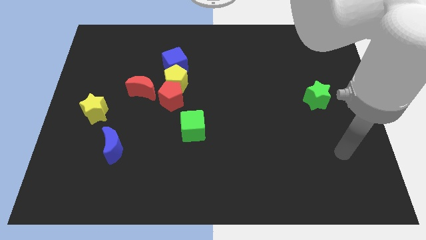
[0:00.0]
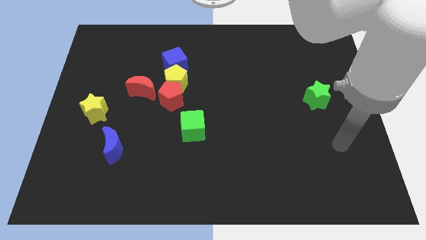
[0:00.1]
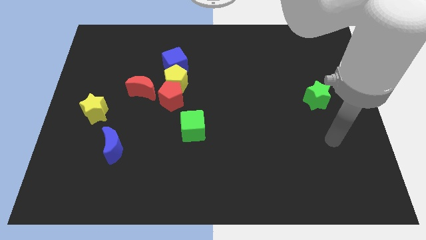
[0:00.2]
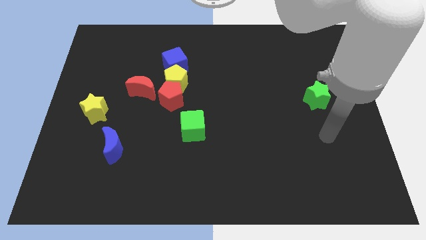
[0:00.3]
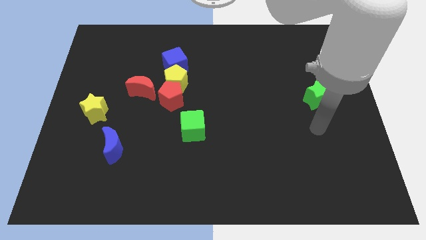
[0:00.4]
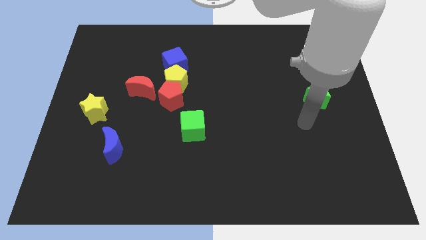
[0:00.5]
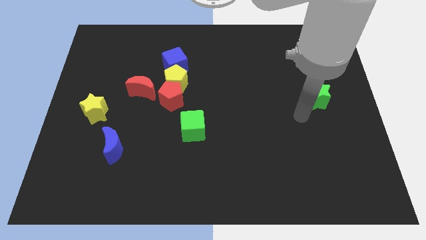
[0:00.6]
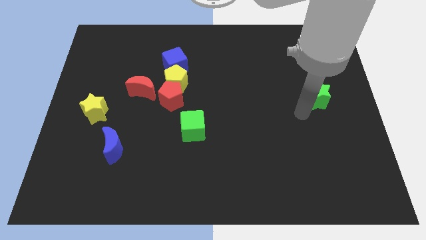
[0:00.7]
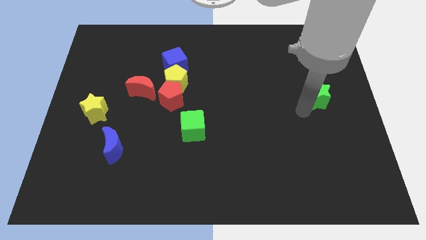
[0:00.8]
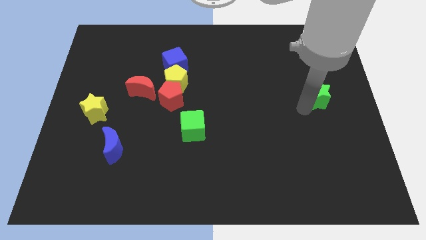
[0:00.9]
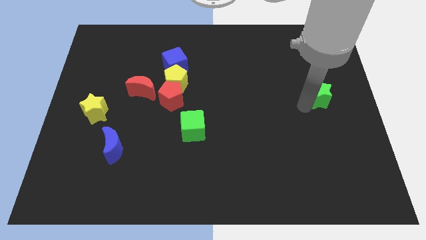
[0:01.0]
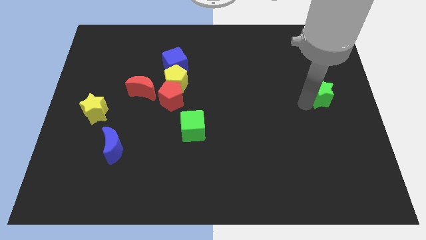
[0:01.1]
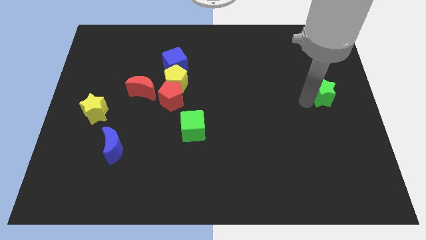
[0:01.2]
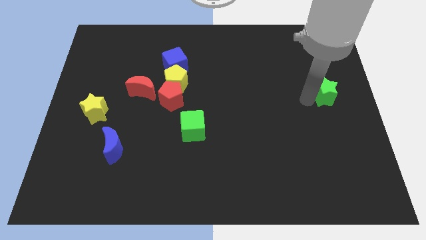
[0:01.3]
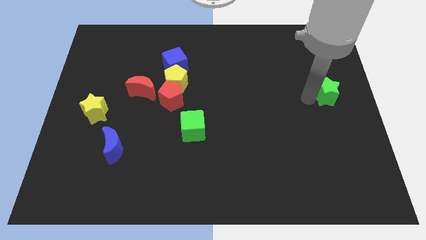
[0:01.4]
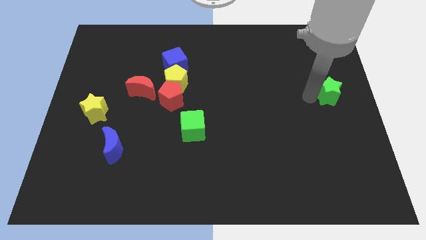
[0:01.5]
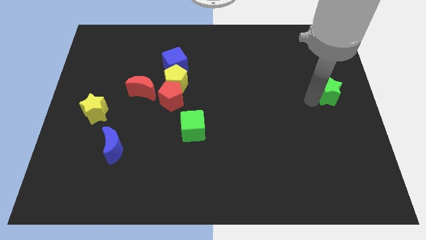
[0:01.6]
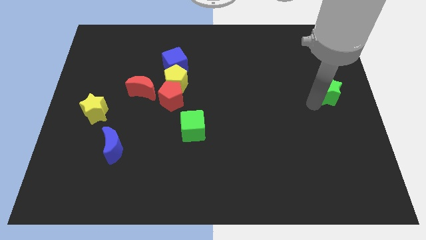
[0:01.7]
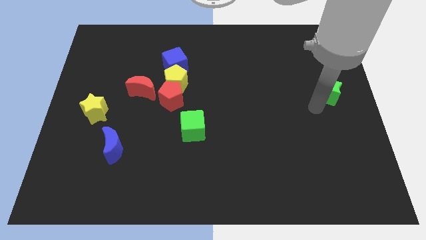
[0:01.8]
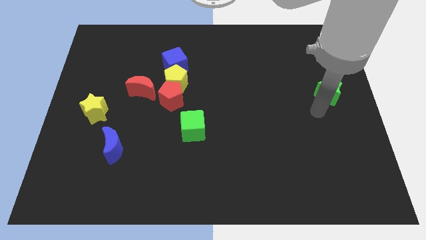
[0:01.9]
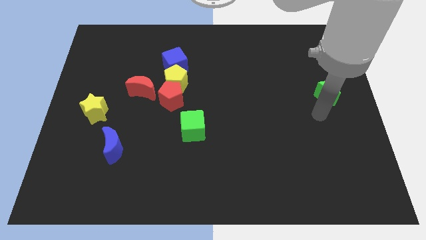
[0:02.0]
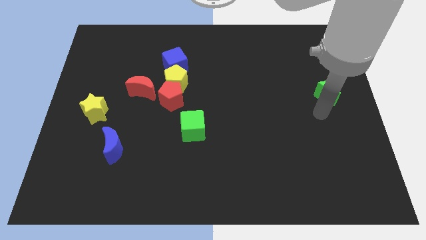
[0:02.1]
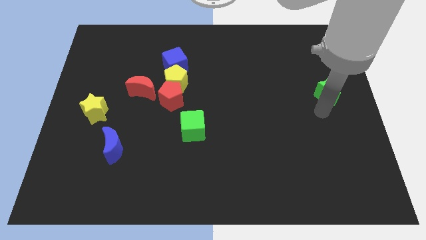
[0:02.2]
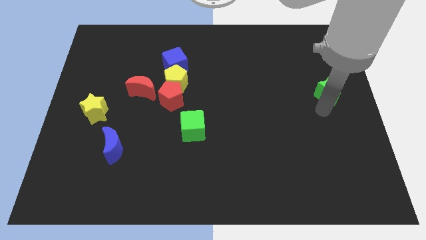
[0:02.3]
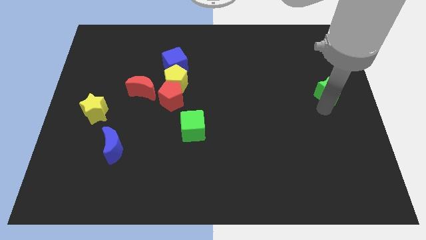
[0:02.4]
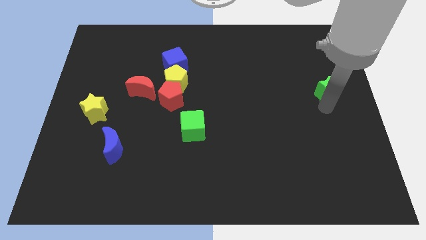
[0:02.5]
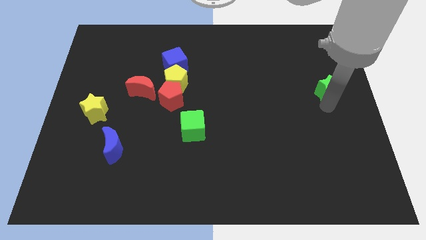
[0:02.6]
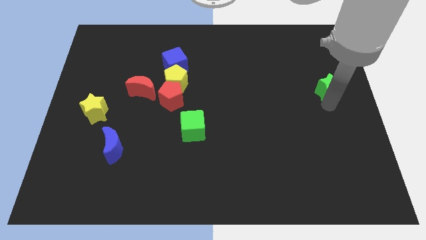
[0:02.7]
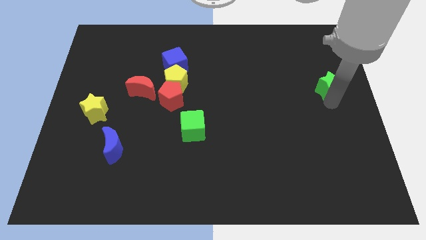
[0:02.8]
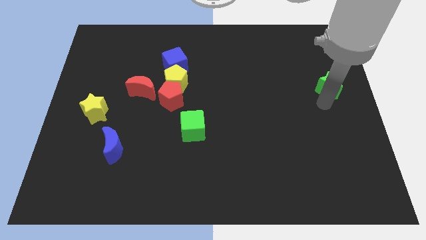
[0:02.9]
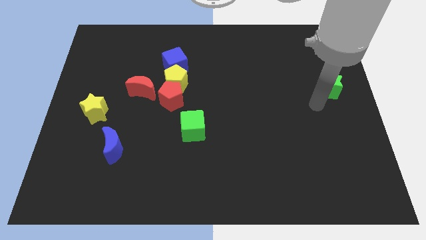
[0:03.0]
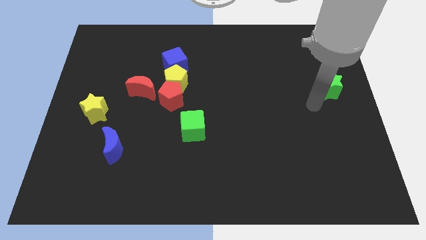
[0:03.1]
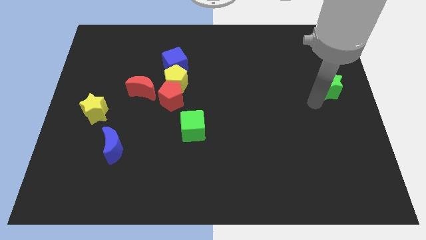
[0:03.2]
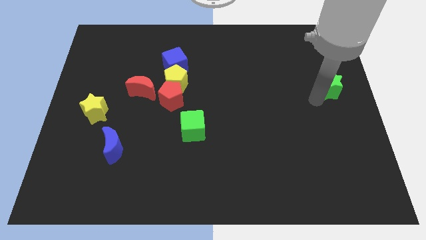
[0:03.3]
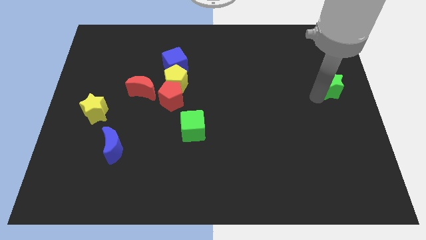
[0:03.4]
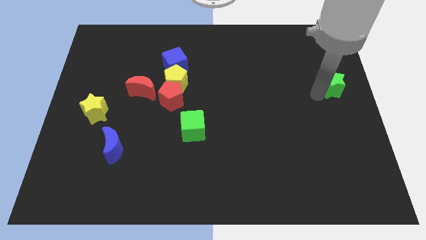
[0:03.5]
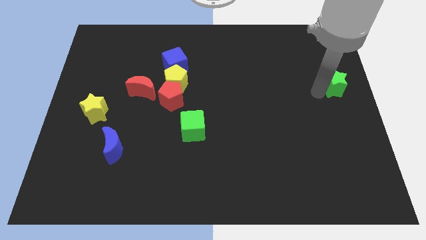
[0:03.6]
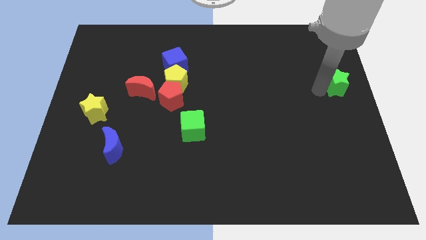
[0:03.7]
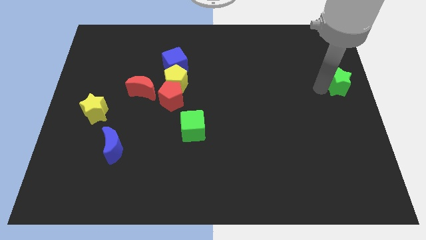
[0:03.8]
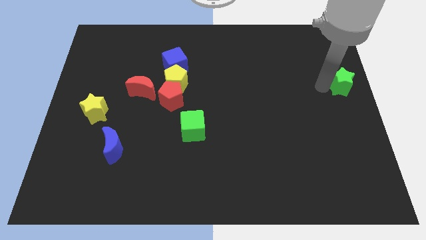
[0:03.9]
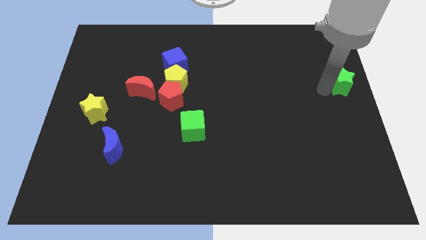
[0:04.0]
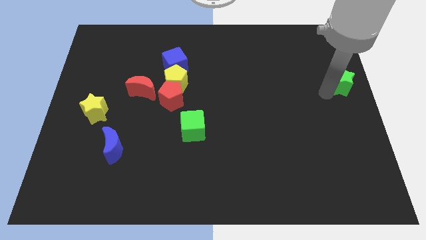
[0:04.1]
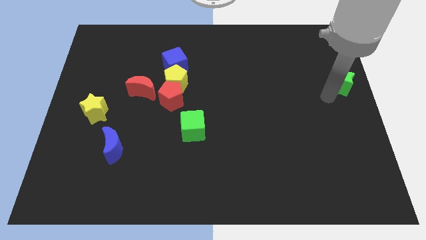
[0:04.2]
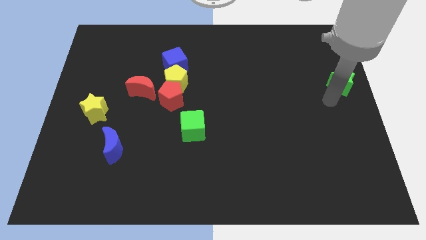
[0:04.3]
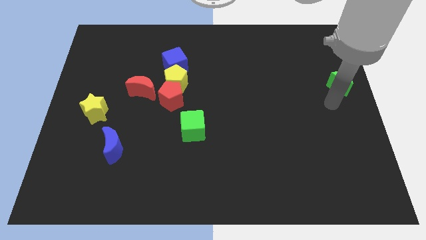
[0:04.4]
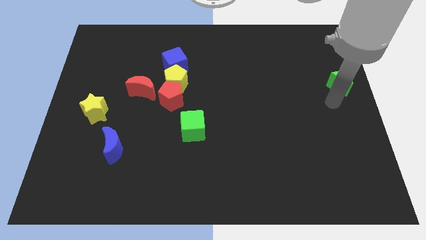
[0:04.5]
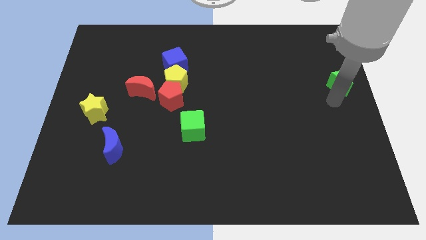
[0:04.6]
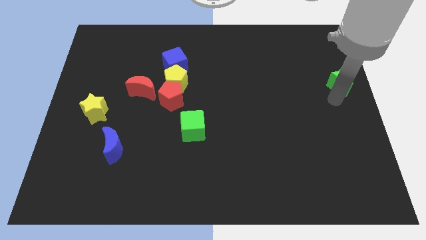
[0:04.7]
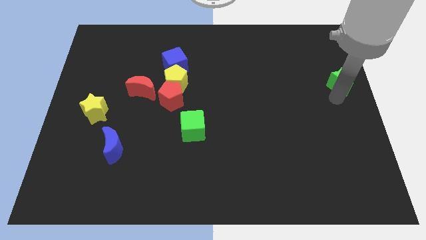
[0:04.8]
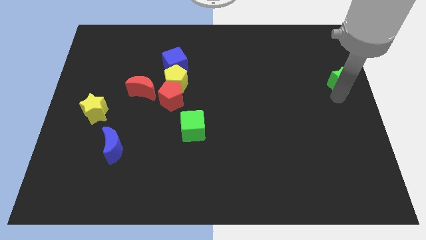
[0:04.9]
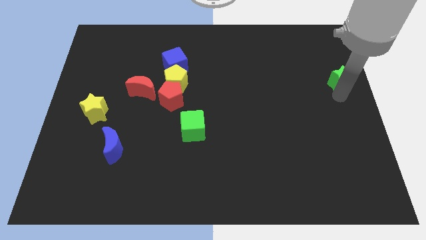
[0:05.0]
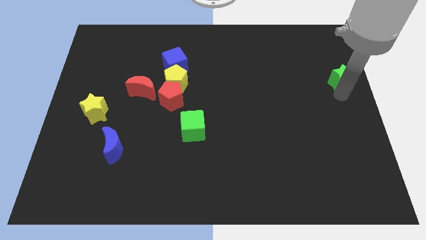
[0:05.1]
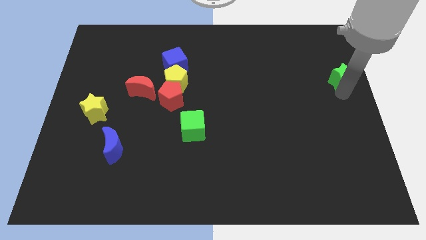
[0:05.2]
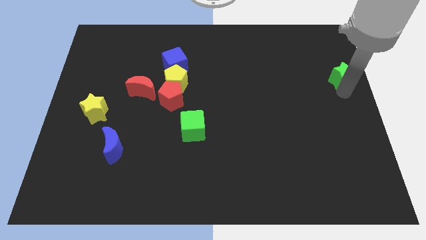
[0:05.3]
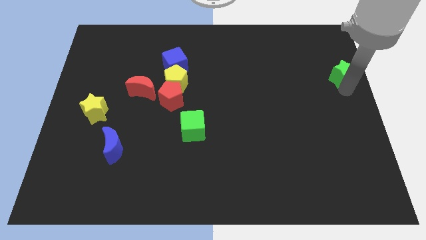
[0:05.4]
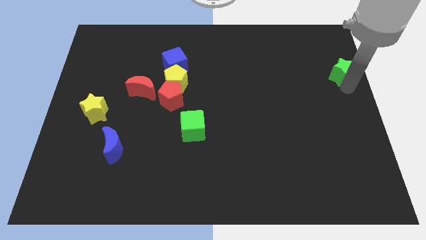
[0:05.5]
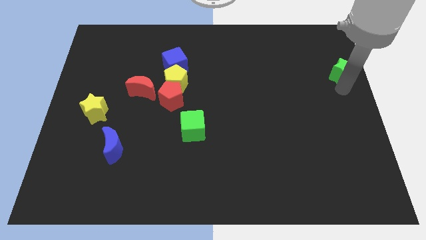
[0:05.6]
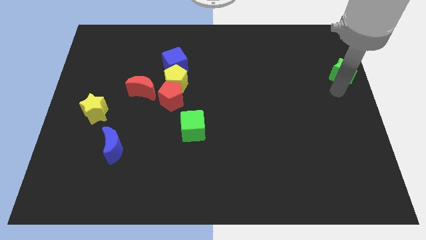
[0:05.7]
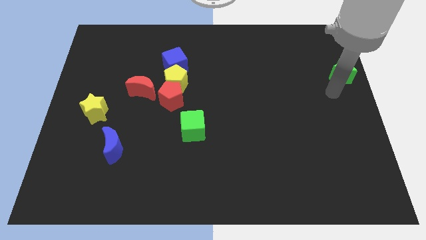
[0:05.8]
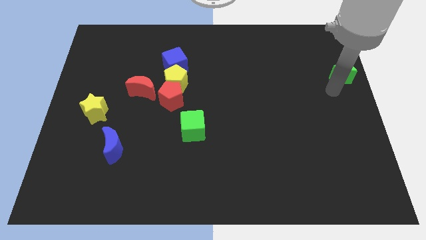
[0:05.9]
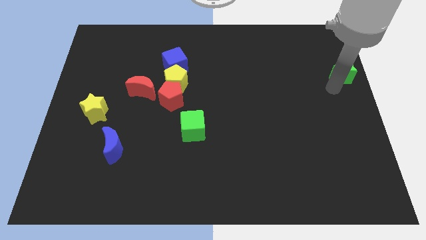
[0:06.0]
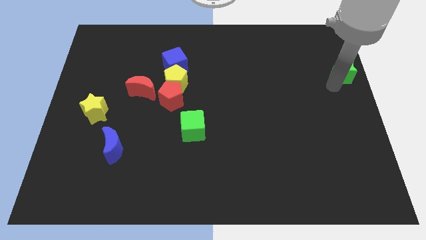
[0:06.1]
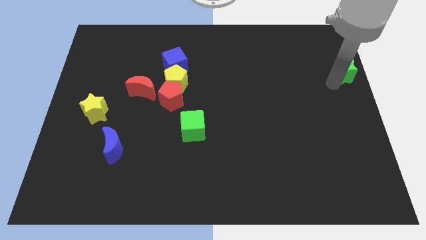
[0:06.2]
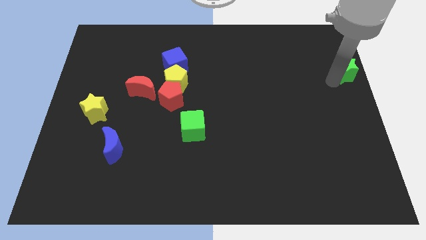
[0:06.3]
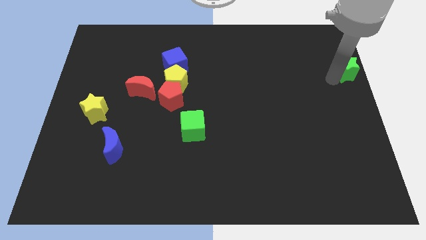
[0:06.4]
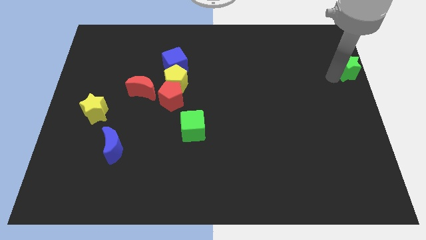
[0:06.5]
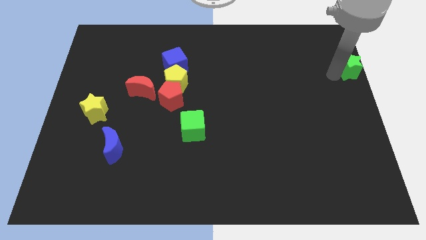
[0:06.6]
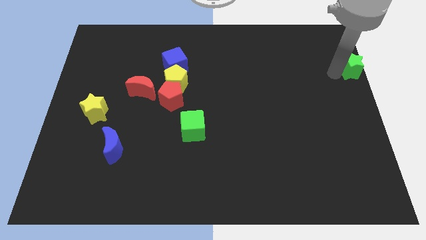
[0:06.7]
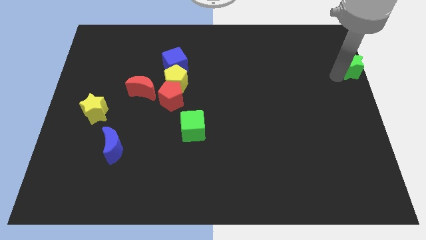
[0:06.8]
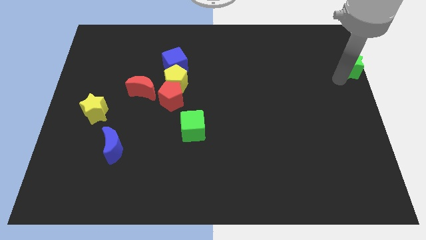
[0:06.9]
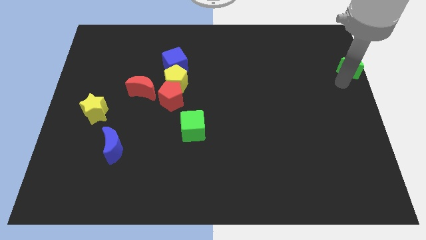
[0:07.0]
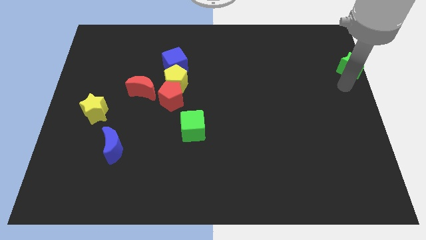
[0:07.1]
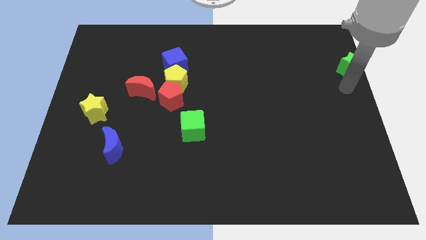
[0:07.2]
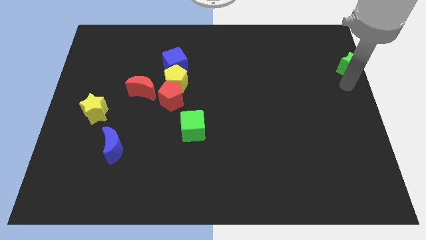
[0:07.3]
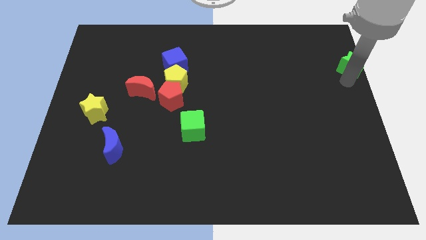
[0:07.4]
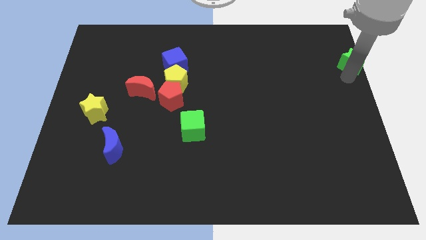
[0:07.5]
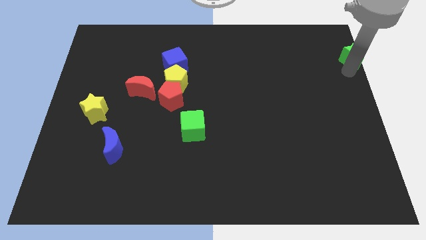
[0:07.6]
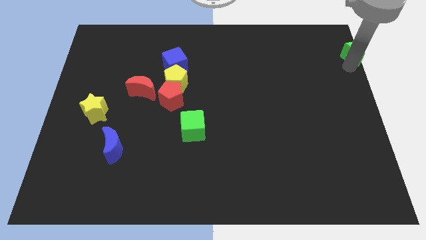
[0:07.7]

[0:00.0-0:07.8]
move the green star to the upper right corner
